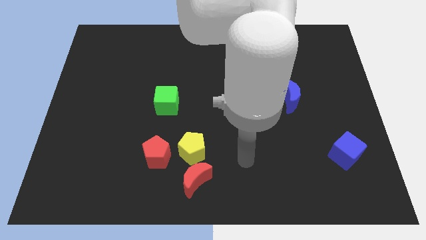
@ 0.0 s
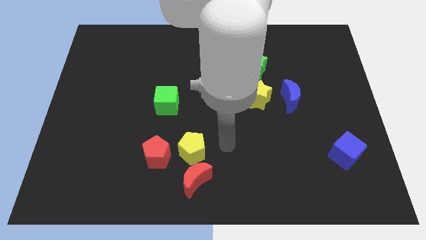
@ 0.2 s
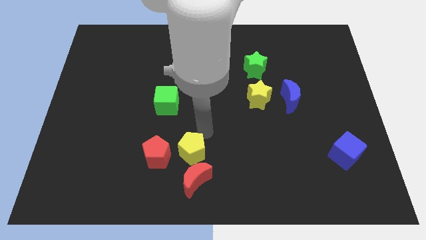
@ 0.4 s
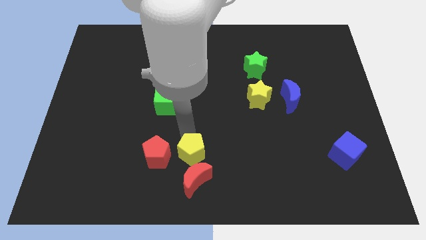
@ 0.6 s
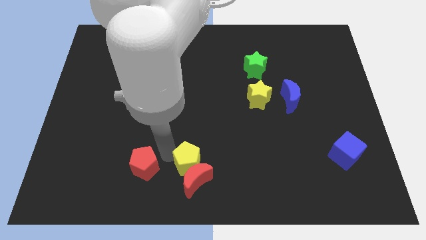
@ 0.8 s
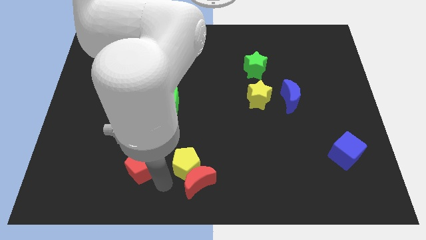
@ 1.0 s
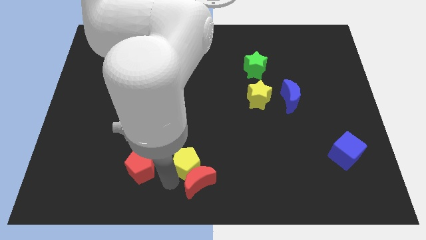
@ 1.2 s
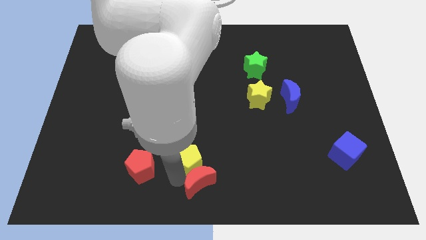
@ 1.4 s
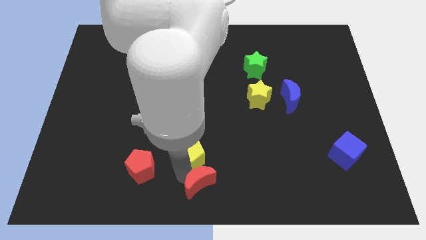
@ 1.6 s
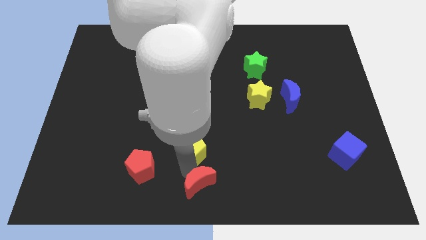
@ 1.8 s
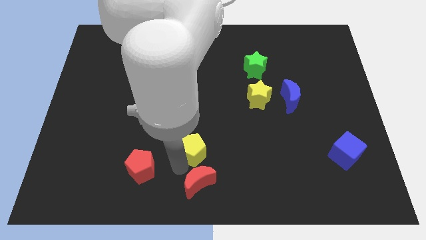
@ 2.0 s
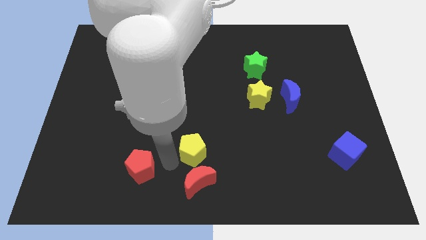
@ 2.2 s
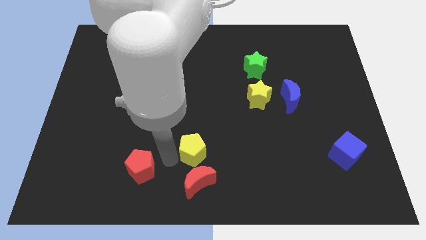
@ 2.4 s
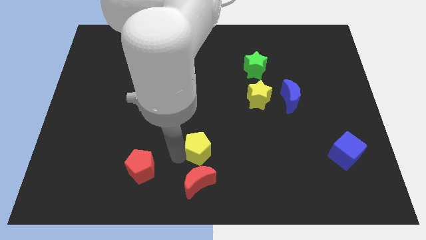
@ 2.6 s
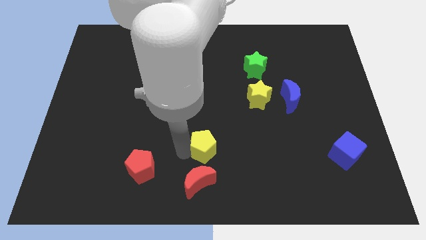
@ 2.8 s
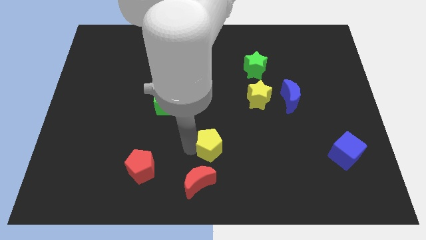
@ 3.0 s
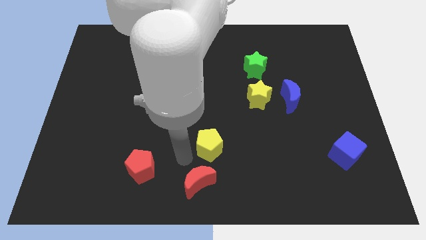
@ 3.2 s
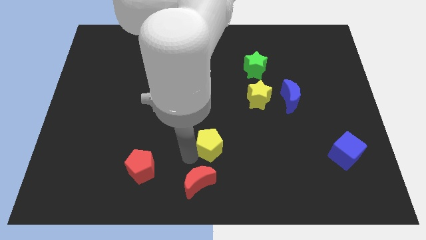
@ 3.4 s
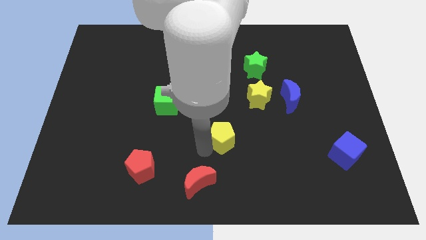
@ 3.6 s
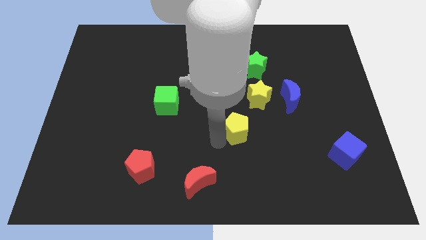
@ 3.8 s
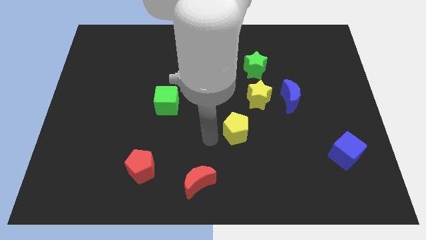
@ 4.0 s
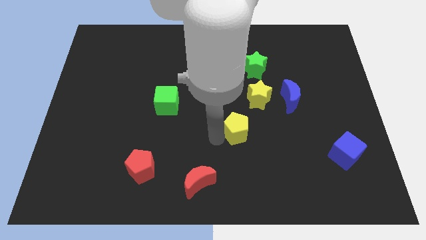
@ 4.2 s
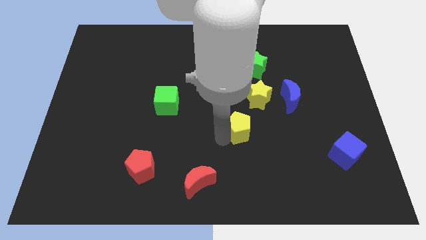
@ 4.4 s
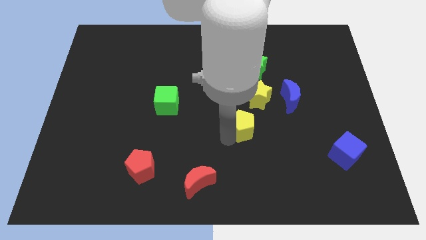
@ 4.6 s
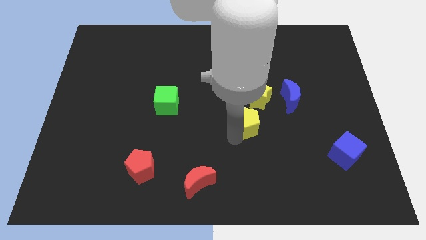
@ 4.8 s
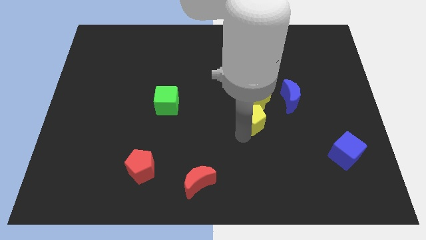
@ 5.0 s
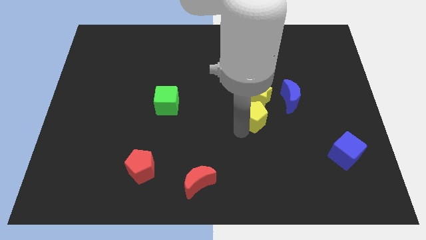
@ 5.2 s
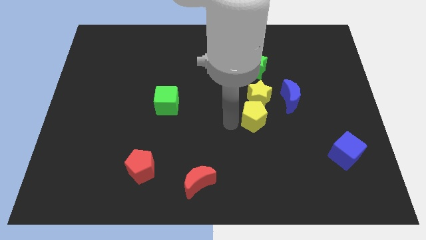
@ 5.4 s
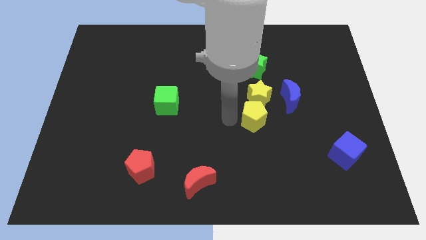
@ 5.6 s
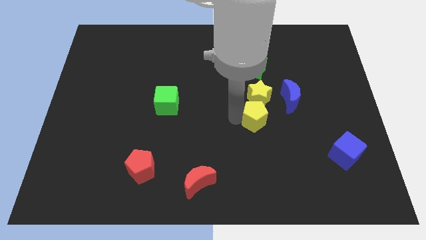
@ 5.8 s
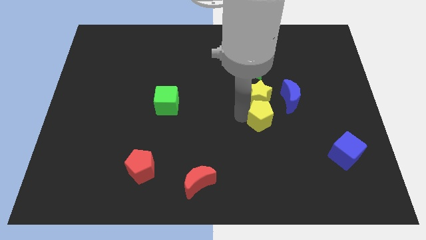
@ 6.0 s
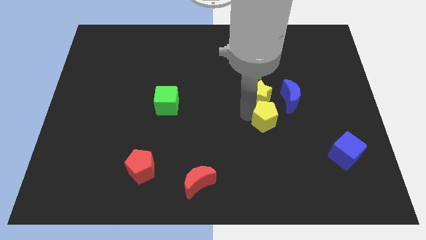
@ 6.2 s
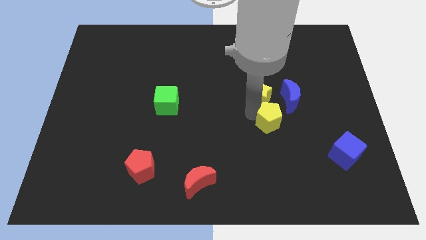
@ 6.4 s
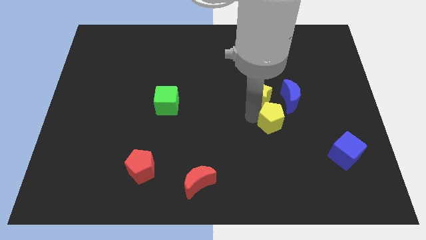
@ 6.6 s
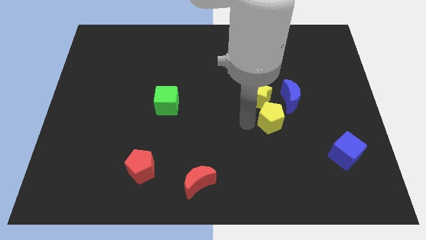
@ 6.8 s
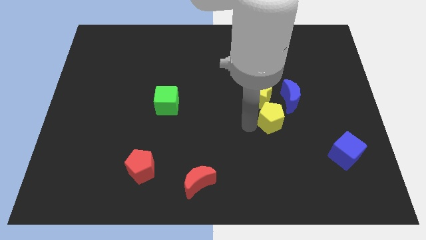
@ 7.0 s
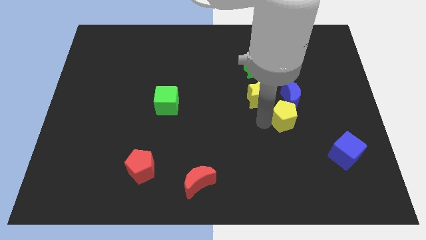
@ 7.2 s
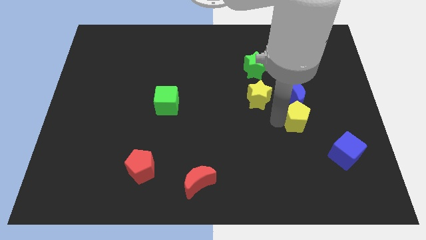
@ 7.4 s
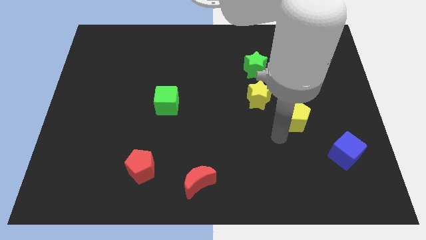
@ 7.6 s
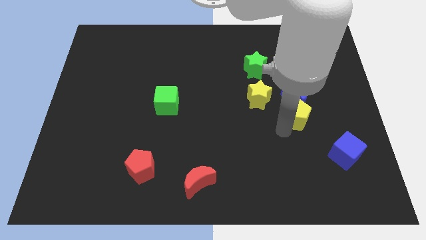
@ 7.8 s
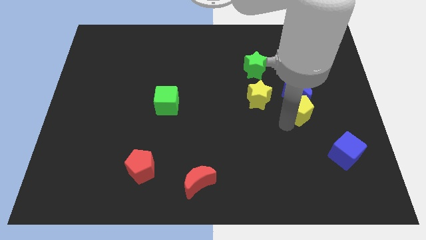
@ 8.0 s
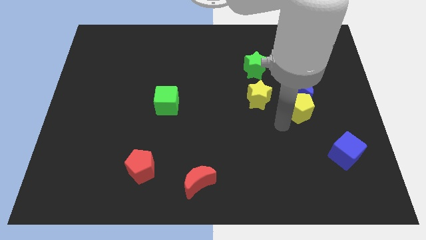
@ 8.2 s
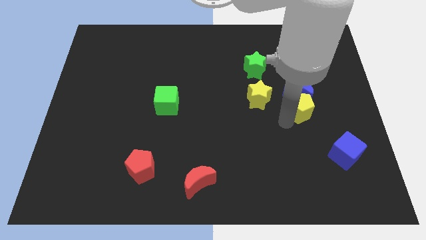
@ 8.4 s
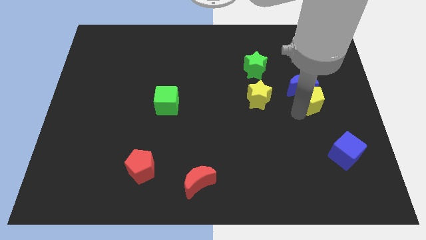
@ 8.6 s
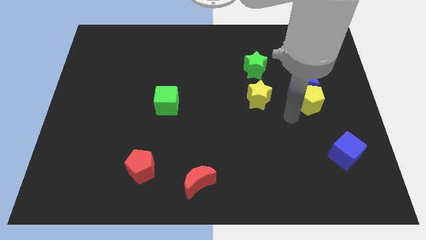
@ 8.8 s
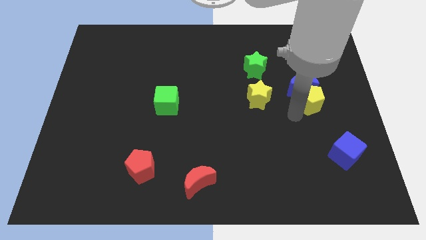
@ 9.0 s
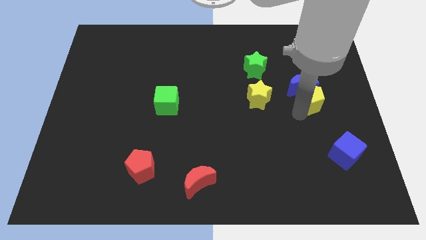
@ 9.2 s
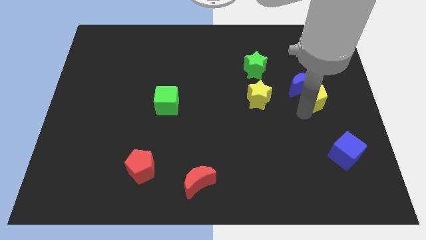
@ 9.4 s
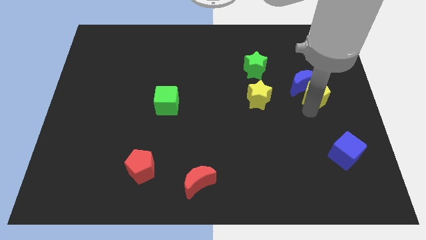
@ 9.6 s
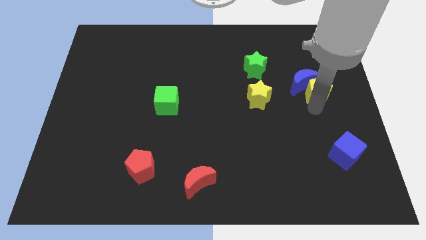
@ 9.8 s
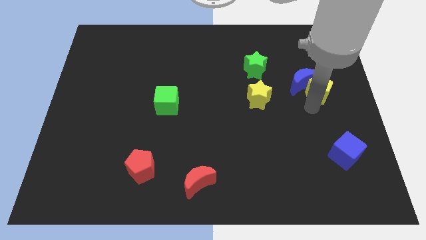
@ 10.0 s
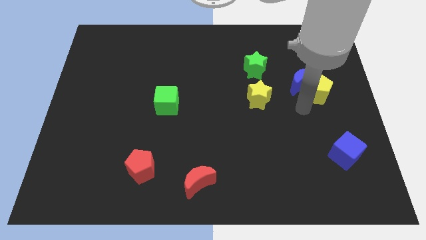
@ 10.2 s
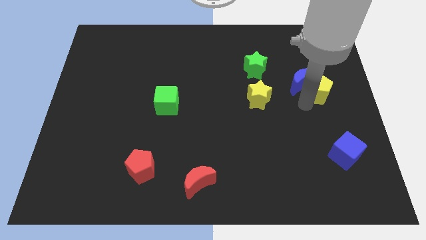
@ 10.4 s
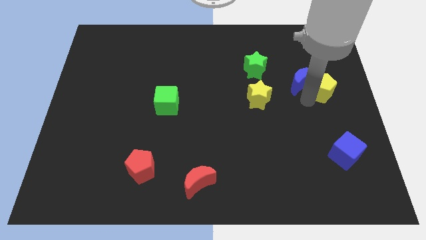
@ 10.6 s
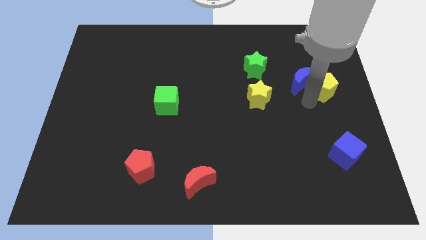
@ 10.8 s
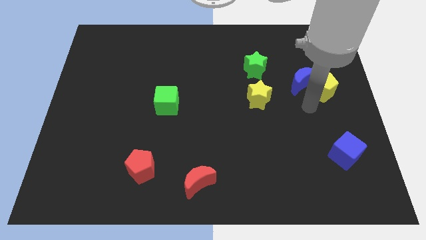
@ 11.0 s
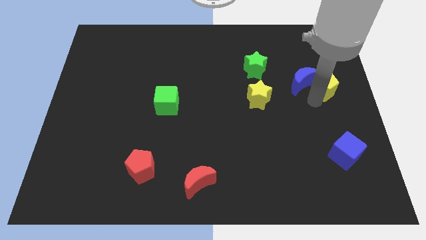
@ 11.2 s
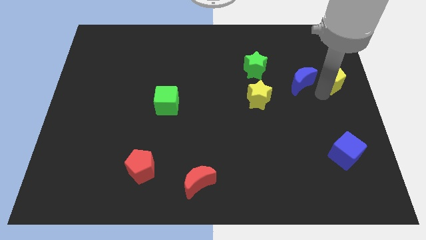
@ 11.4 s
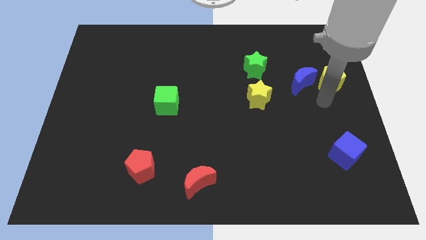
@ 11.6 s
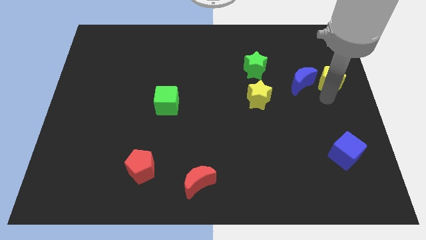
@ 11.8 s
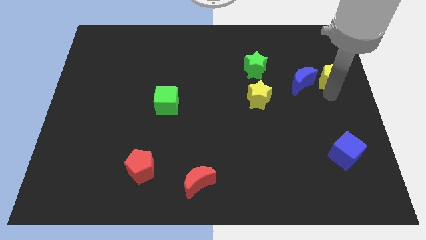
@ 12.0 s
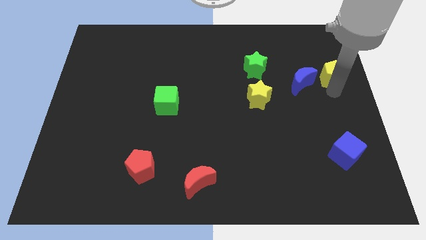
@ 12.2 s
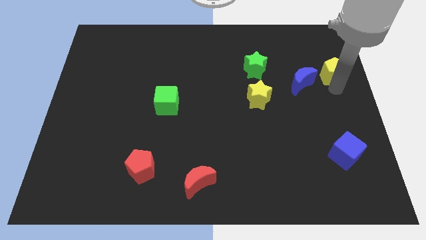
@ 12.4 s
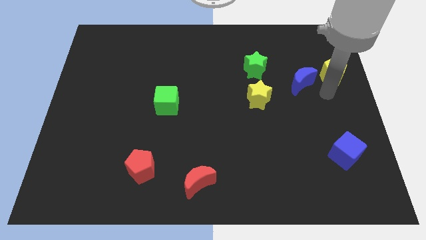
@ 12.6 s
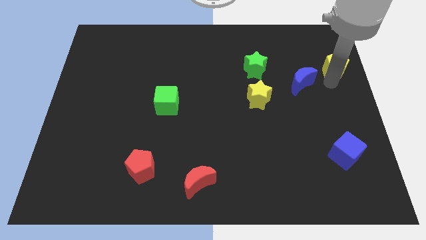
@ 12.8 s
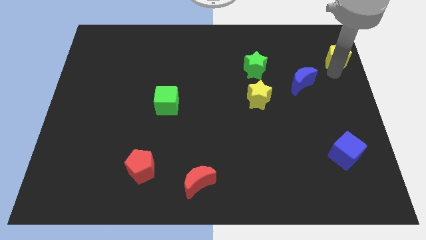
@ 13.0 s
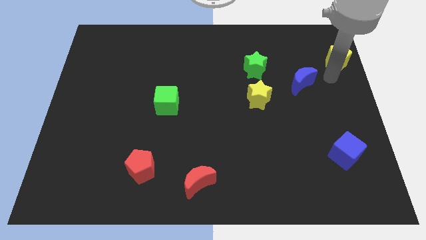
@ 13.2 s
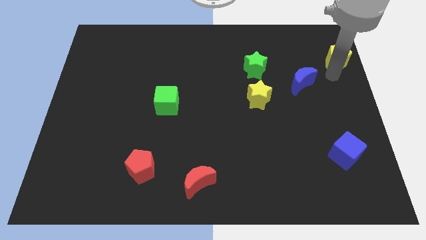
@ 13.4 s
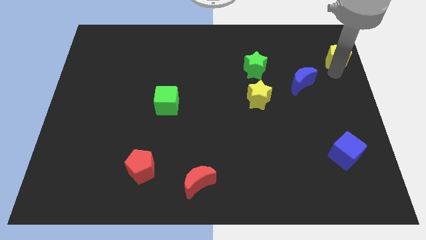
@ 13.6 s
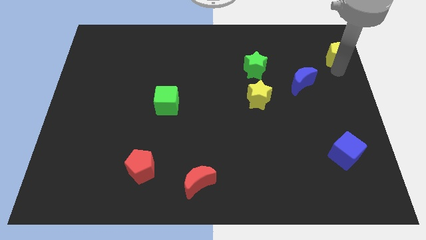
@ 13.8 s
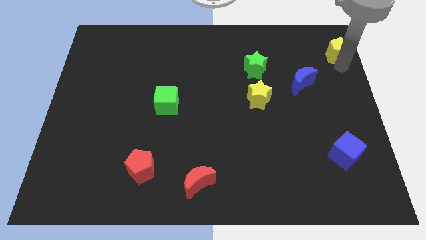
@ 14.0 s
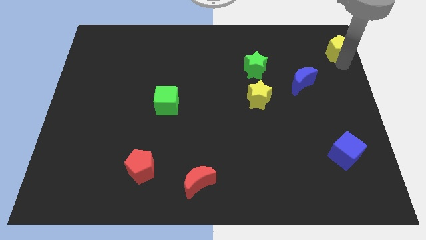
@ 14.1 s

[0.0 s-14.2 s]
put the yellow pentagon to the upper right corner
